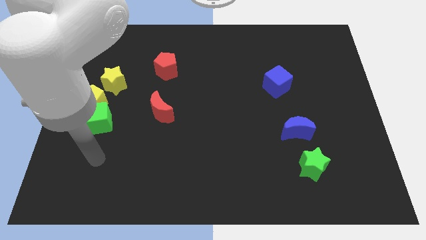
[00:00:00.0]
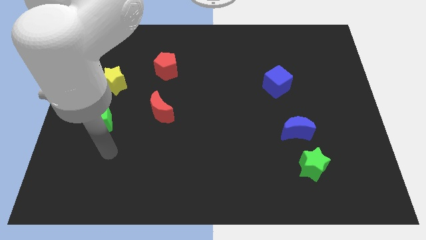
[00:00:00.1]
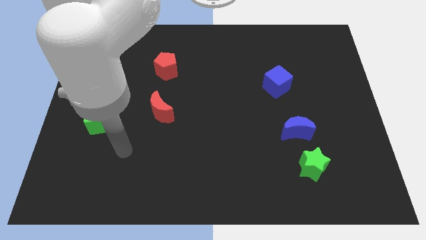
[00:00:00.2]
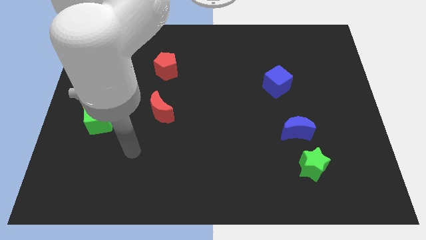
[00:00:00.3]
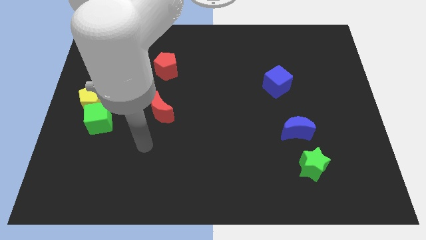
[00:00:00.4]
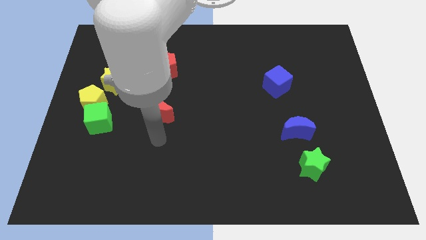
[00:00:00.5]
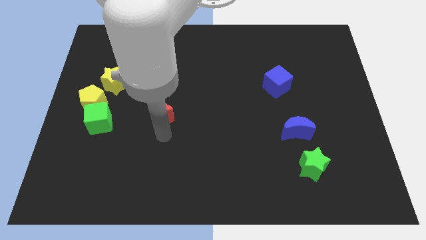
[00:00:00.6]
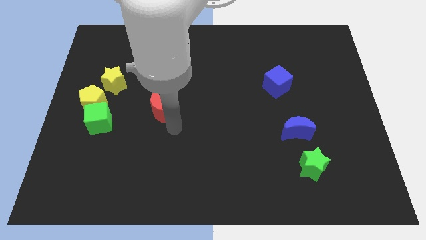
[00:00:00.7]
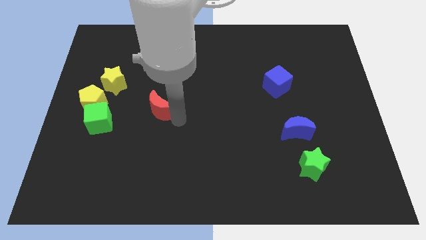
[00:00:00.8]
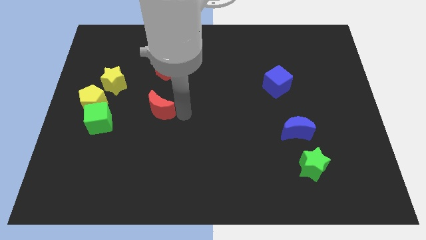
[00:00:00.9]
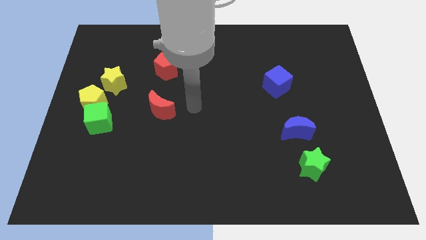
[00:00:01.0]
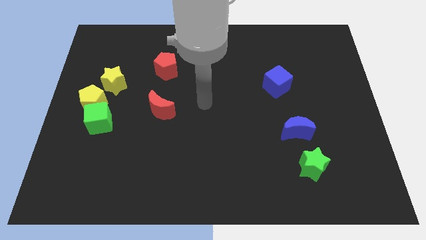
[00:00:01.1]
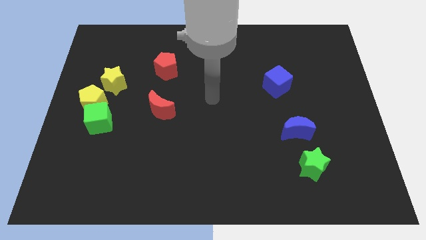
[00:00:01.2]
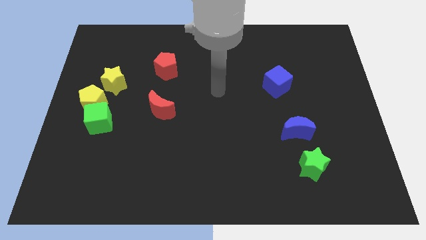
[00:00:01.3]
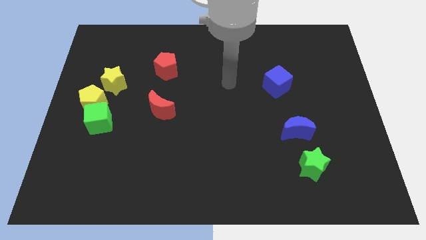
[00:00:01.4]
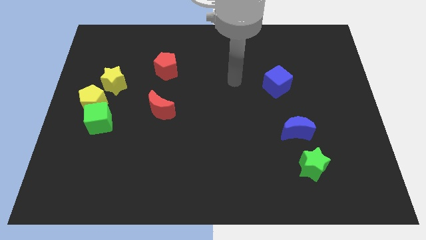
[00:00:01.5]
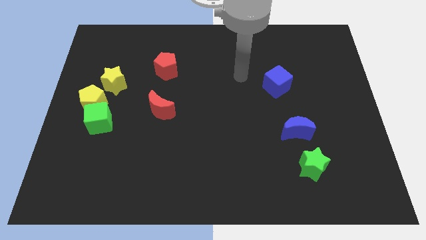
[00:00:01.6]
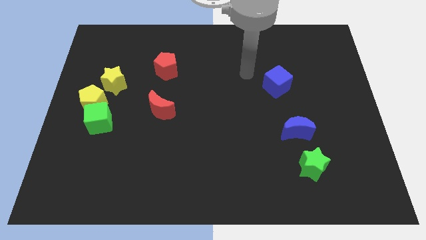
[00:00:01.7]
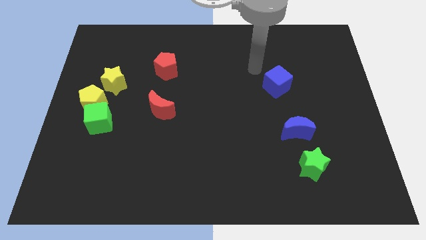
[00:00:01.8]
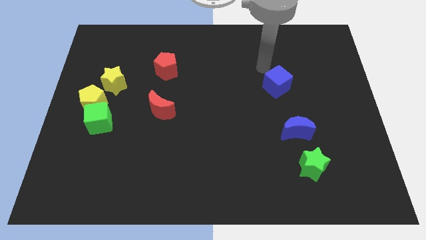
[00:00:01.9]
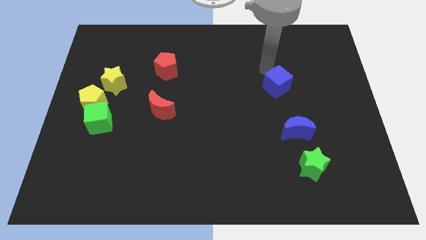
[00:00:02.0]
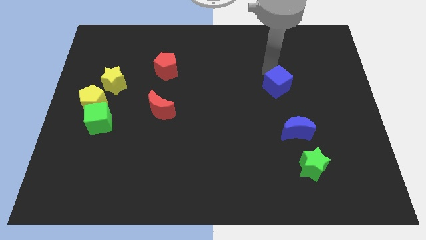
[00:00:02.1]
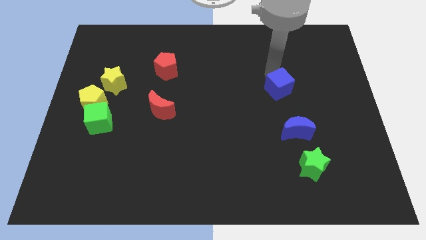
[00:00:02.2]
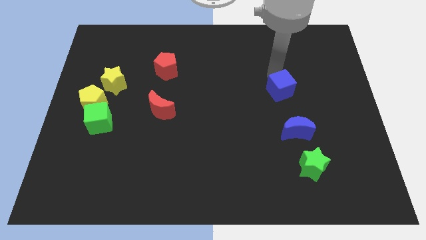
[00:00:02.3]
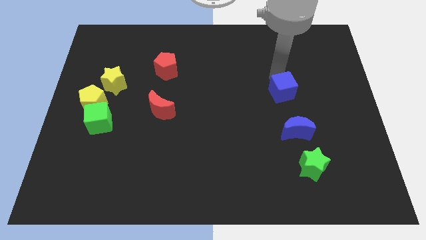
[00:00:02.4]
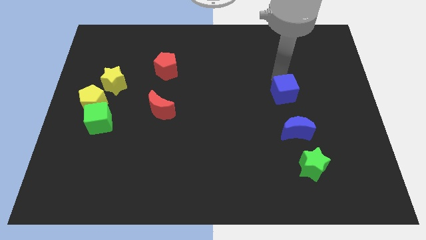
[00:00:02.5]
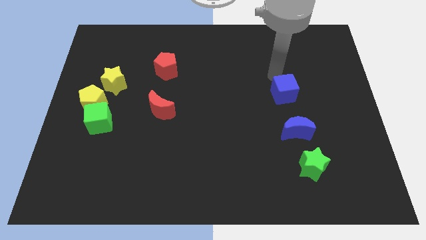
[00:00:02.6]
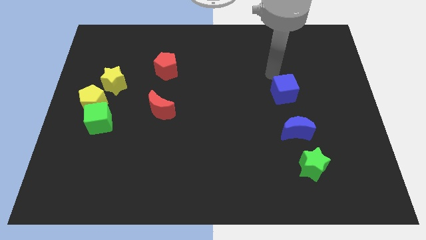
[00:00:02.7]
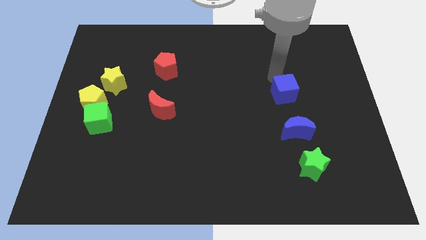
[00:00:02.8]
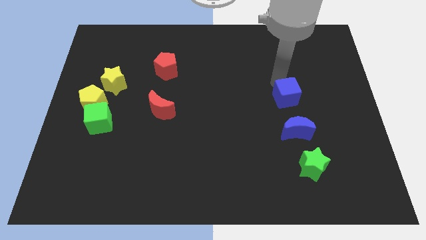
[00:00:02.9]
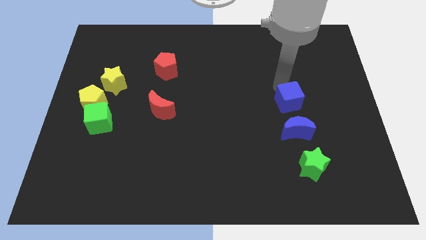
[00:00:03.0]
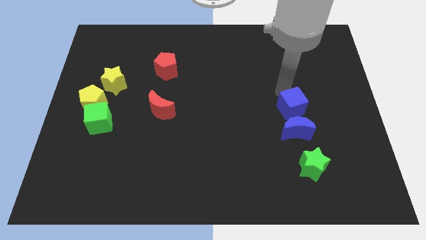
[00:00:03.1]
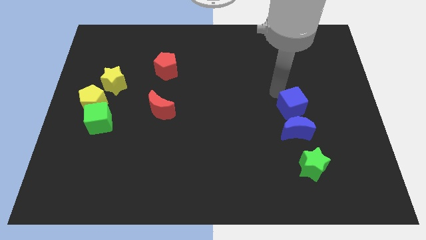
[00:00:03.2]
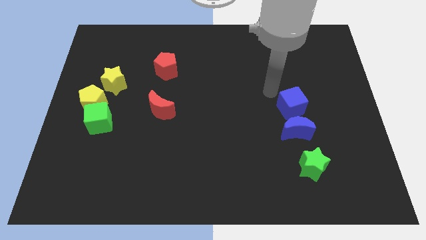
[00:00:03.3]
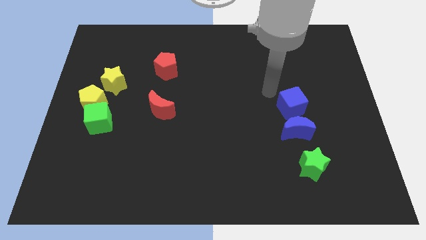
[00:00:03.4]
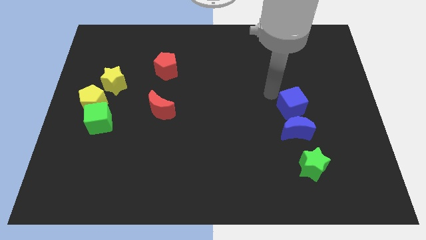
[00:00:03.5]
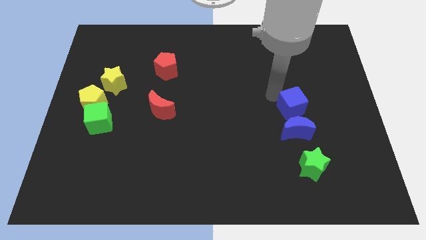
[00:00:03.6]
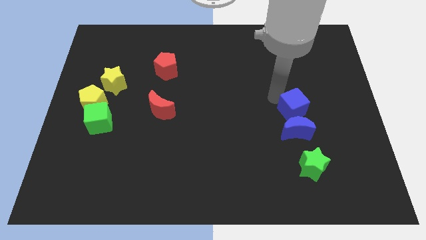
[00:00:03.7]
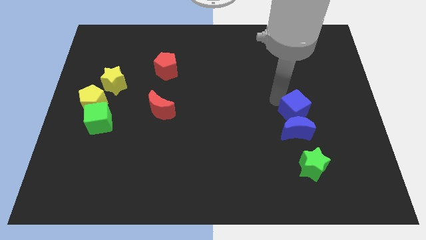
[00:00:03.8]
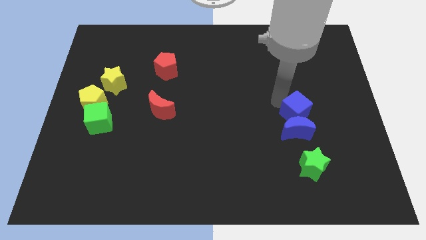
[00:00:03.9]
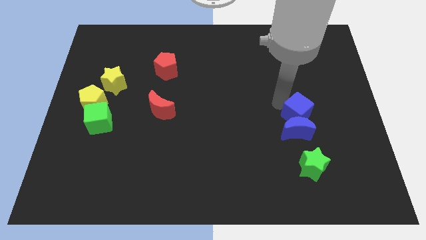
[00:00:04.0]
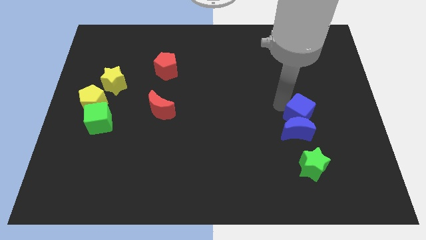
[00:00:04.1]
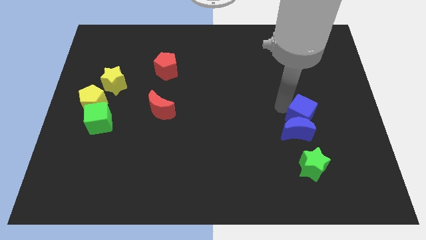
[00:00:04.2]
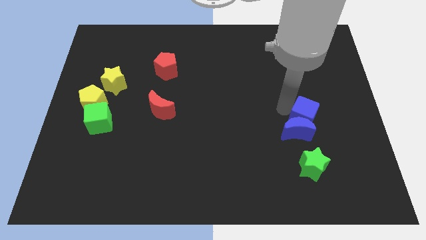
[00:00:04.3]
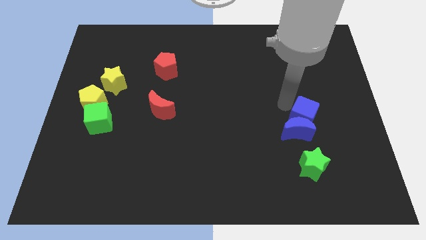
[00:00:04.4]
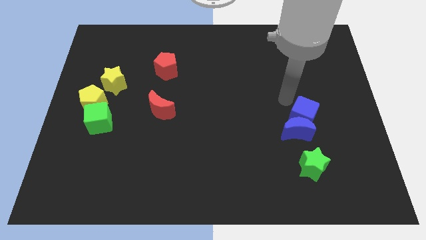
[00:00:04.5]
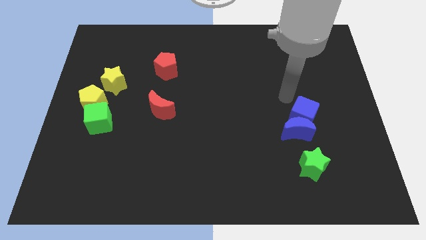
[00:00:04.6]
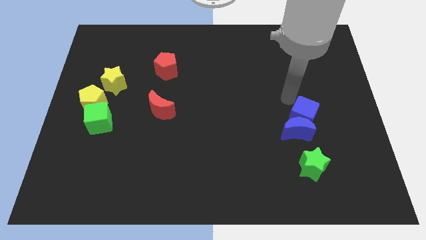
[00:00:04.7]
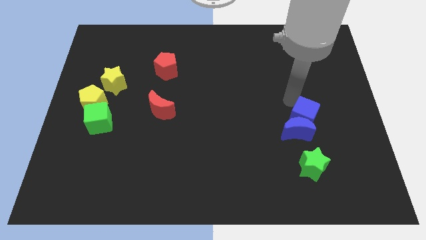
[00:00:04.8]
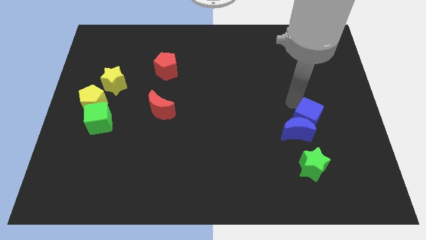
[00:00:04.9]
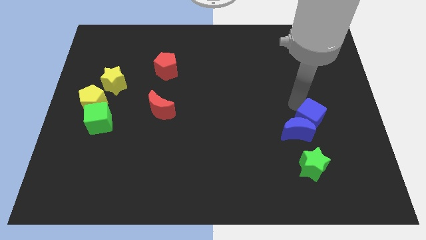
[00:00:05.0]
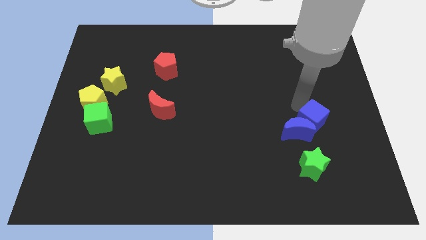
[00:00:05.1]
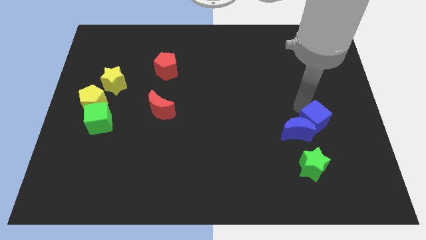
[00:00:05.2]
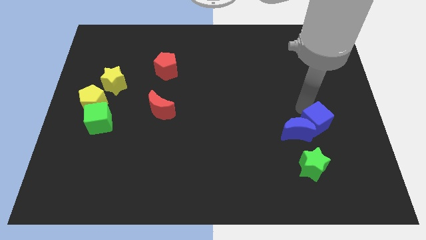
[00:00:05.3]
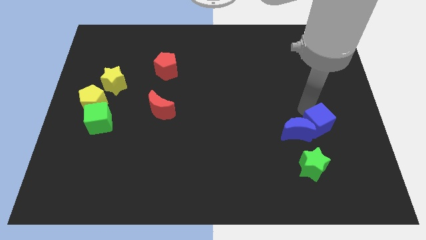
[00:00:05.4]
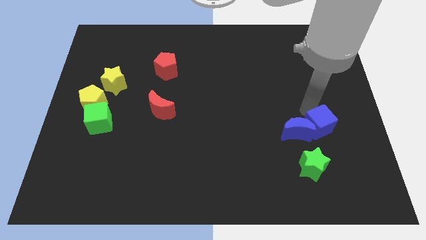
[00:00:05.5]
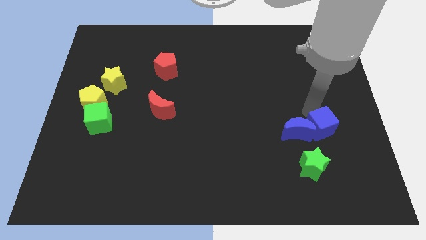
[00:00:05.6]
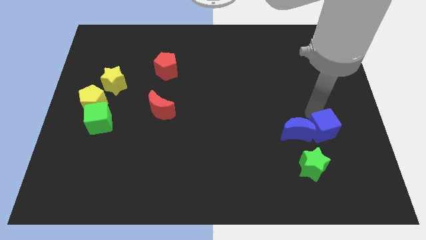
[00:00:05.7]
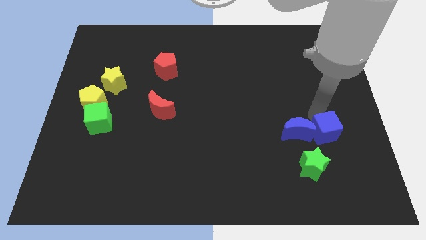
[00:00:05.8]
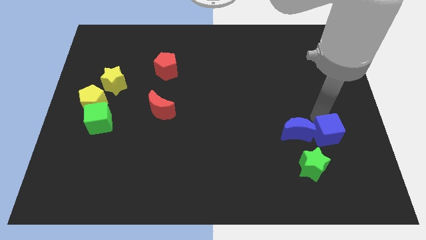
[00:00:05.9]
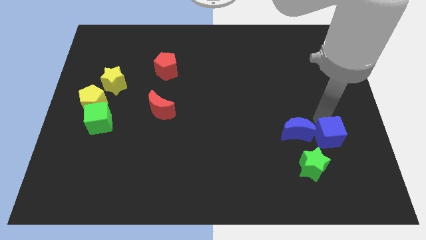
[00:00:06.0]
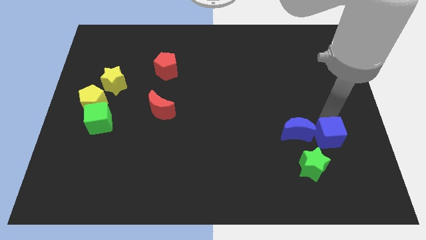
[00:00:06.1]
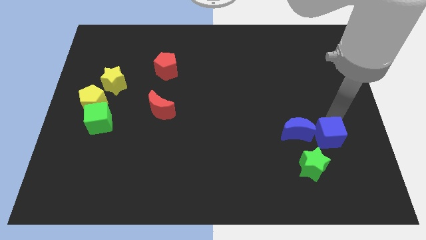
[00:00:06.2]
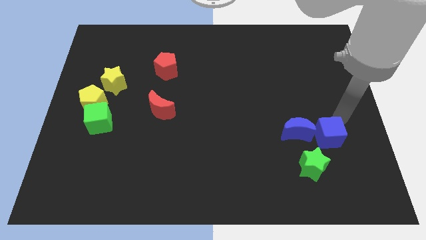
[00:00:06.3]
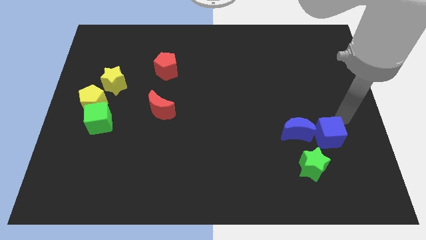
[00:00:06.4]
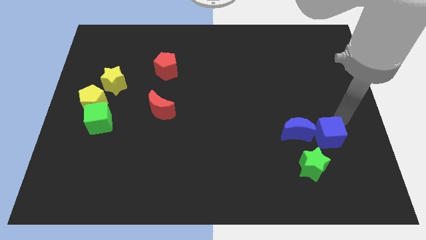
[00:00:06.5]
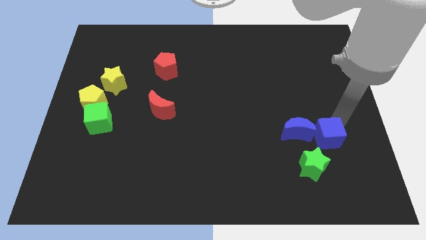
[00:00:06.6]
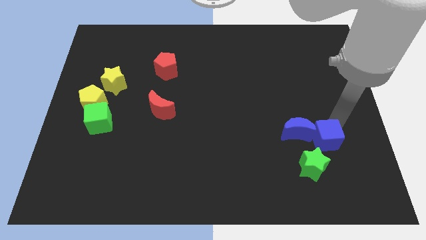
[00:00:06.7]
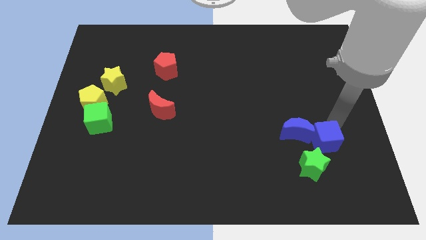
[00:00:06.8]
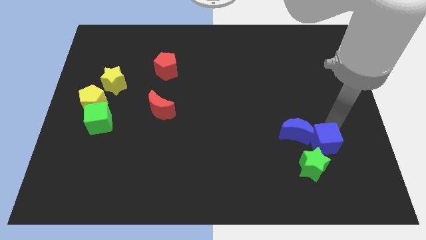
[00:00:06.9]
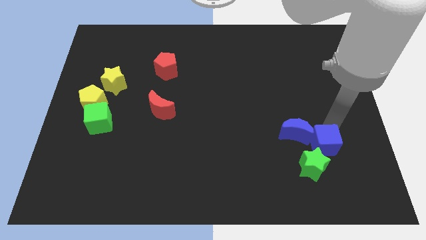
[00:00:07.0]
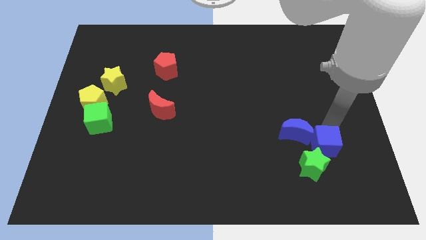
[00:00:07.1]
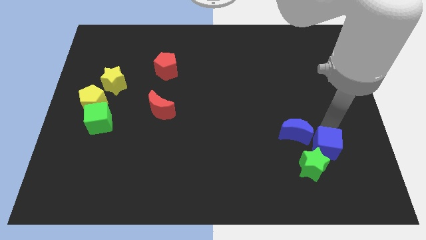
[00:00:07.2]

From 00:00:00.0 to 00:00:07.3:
move the blue cube to the green star
